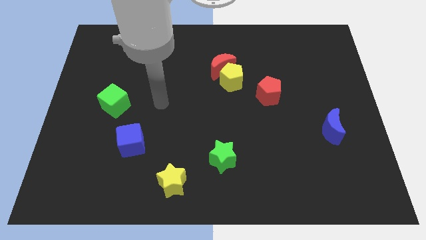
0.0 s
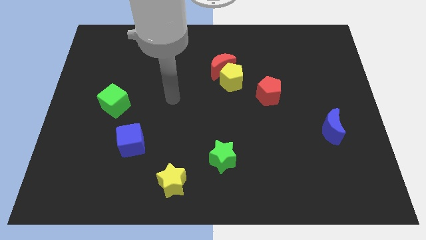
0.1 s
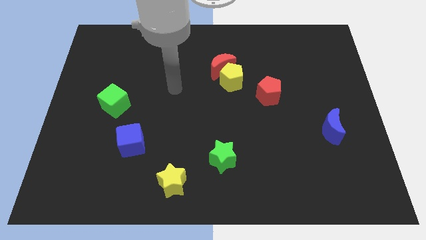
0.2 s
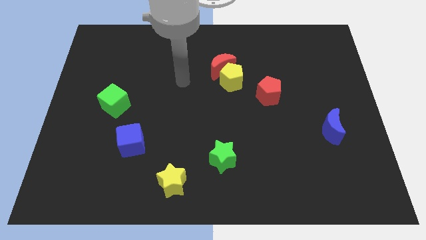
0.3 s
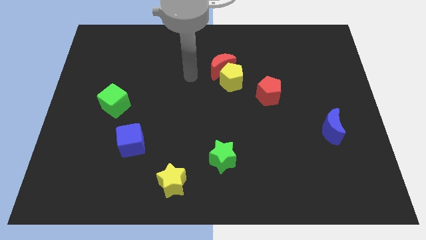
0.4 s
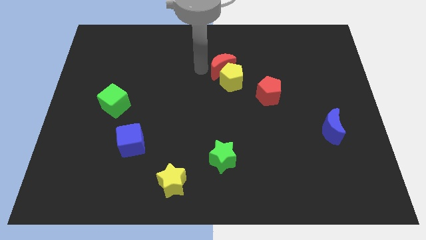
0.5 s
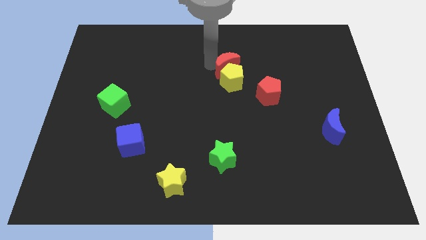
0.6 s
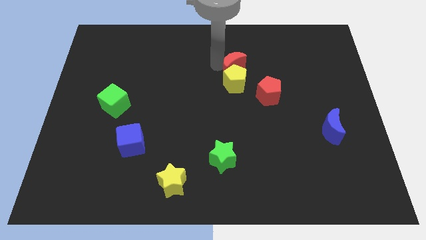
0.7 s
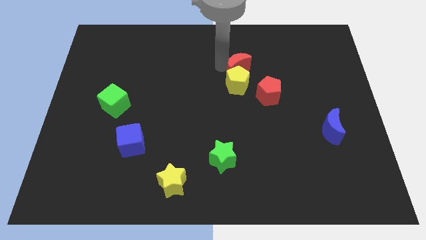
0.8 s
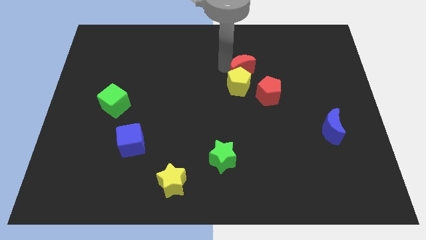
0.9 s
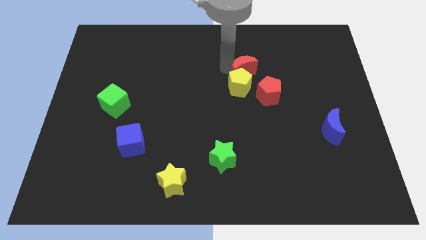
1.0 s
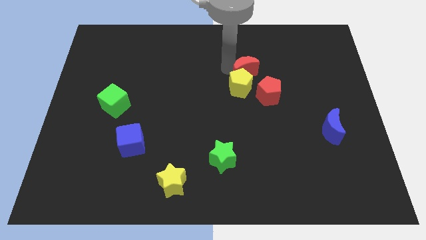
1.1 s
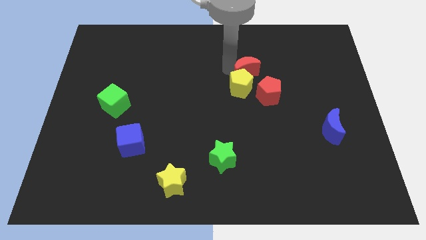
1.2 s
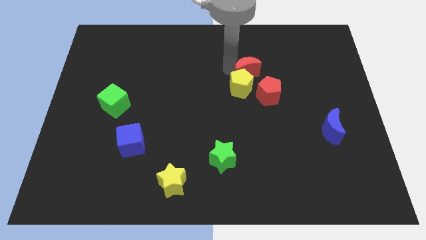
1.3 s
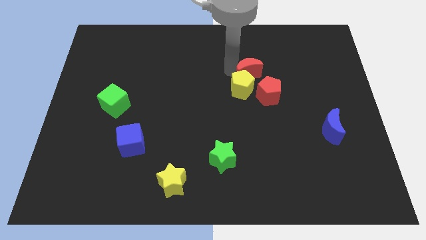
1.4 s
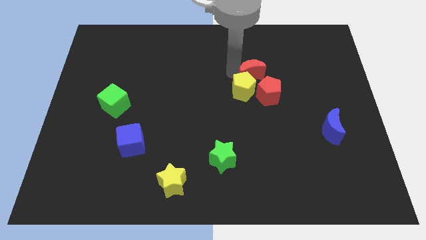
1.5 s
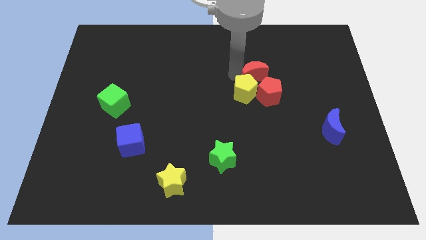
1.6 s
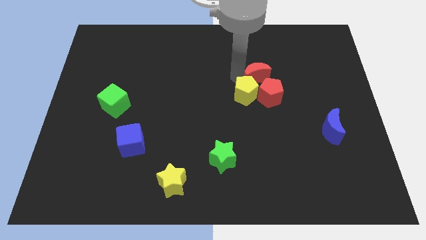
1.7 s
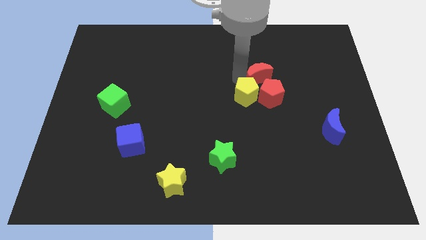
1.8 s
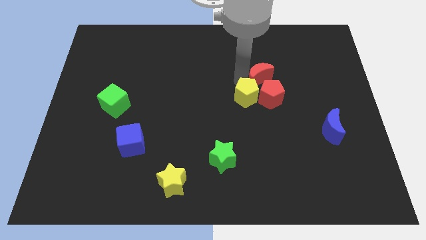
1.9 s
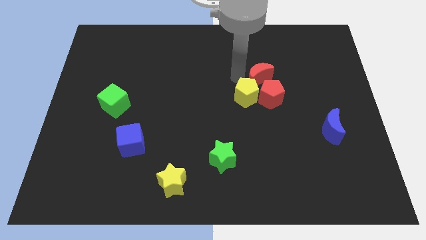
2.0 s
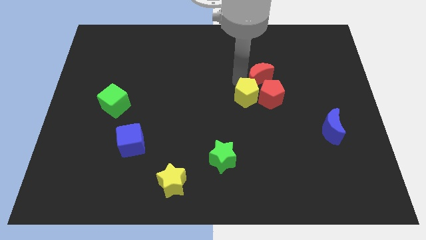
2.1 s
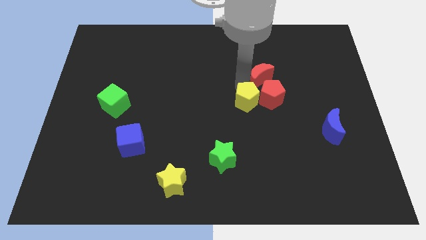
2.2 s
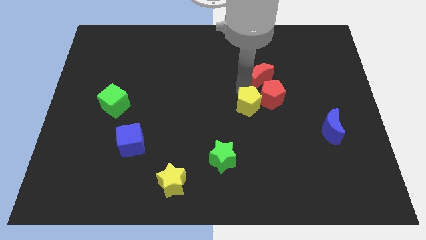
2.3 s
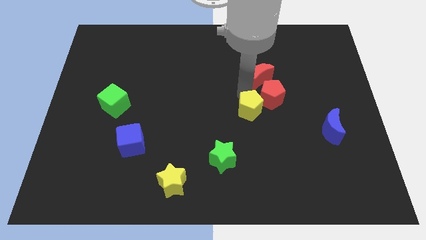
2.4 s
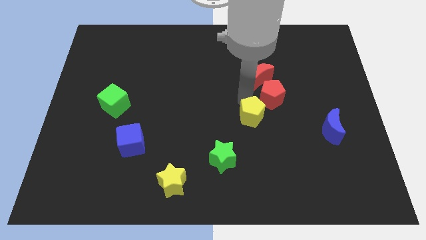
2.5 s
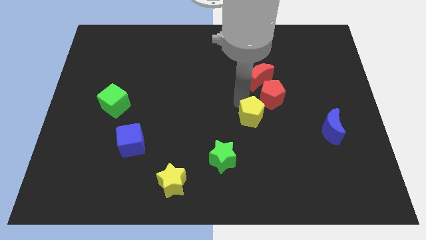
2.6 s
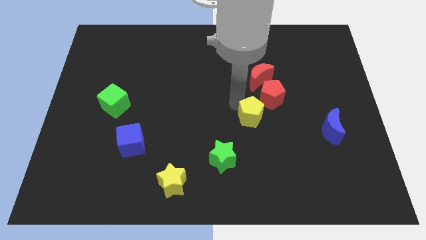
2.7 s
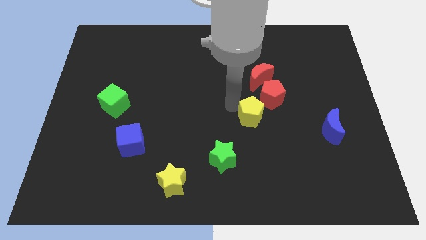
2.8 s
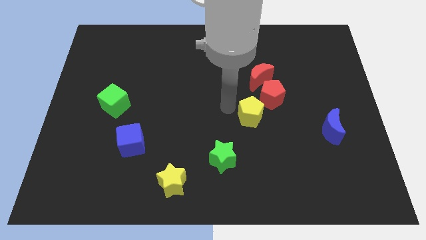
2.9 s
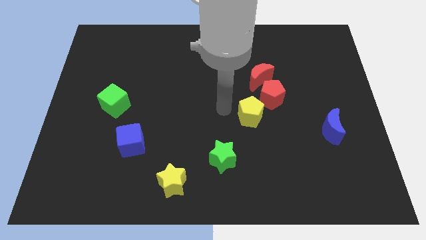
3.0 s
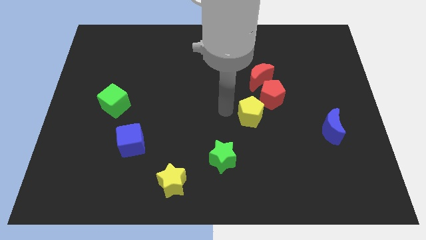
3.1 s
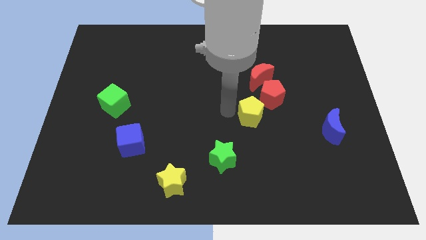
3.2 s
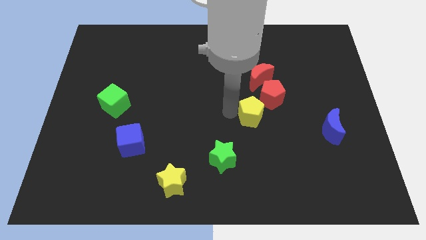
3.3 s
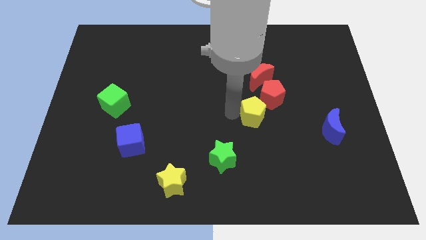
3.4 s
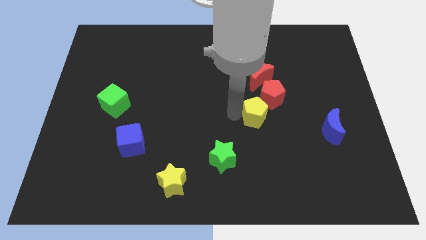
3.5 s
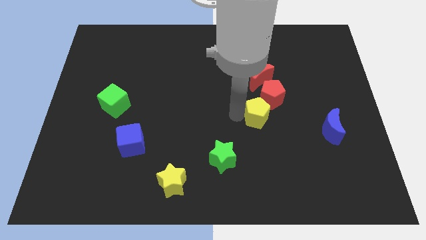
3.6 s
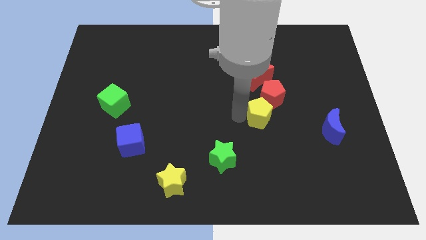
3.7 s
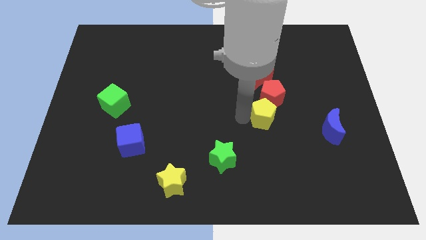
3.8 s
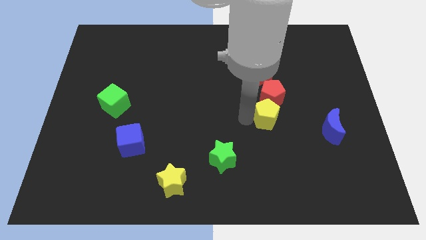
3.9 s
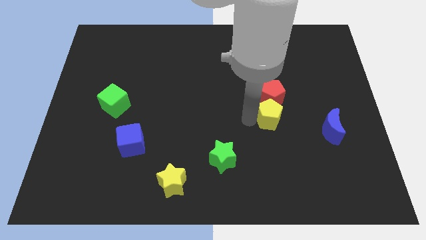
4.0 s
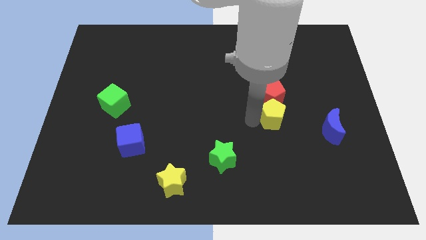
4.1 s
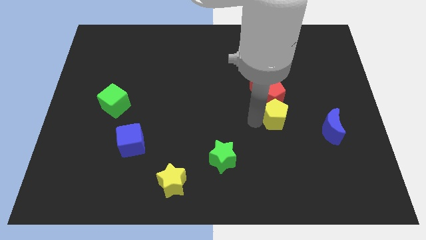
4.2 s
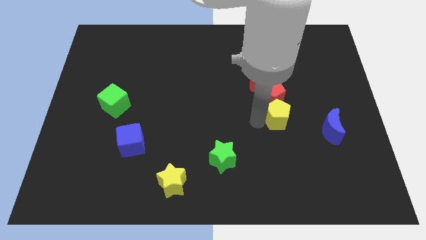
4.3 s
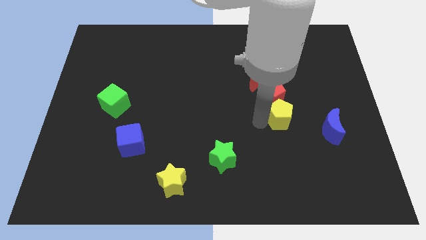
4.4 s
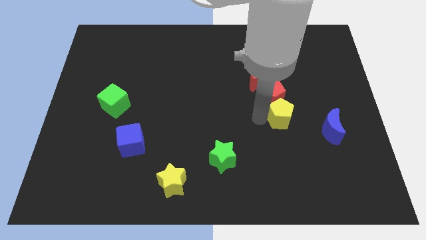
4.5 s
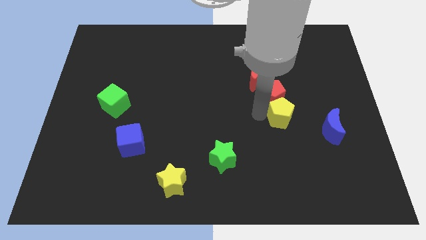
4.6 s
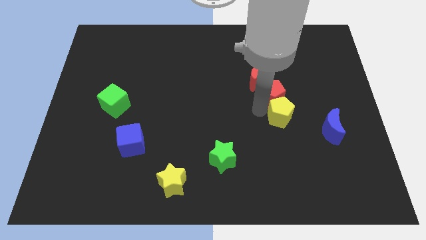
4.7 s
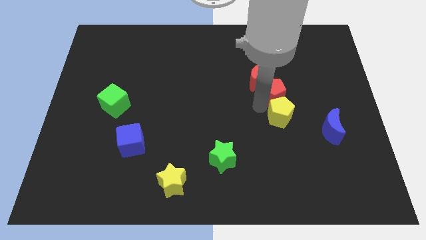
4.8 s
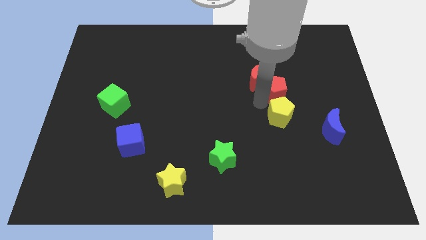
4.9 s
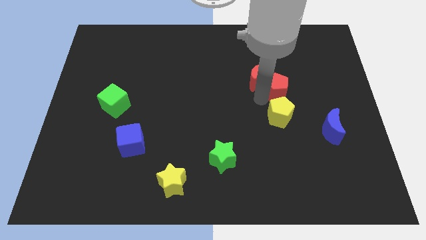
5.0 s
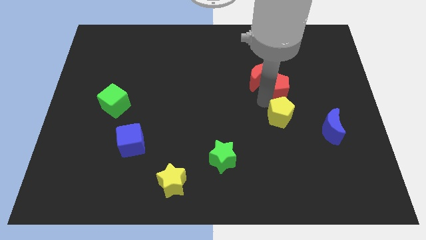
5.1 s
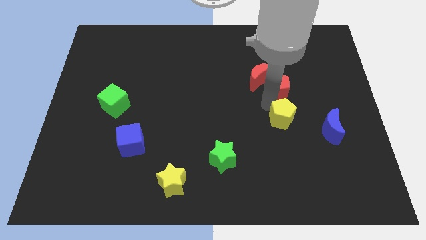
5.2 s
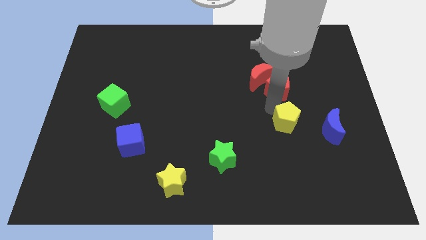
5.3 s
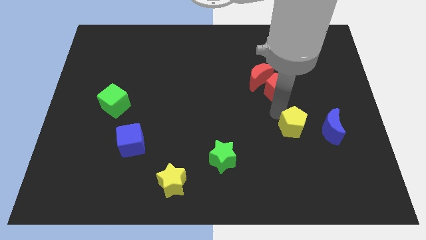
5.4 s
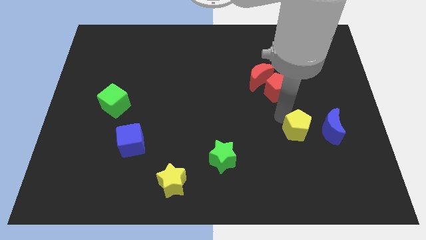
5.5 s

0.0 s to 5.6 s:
slide the yellow pentagon diagonally down and to the right

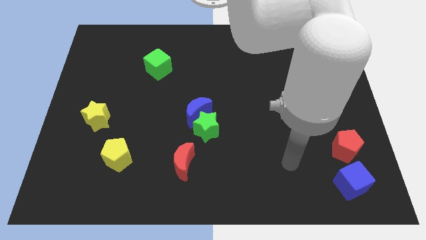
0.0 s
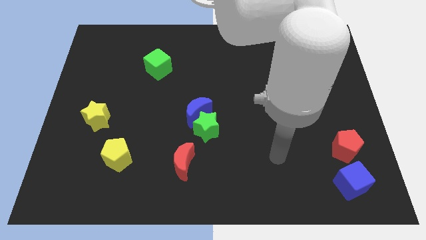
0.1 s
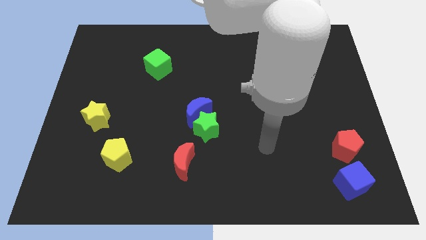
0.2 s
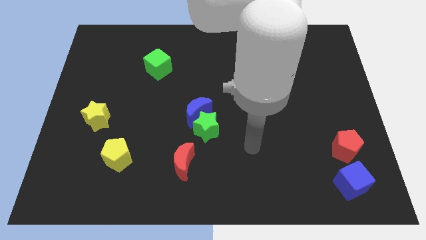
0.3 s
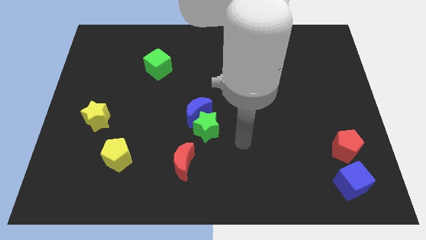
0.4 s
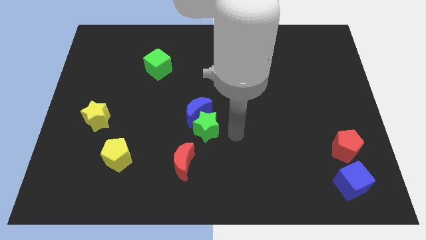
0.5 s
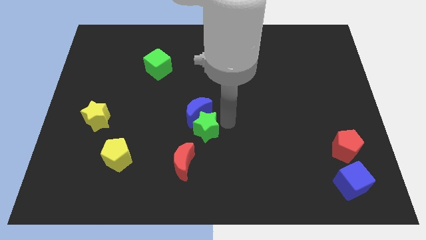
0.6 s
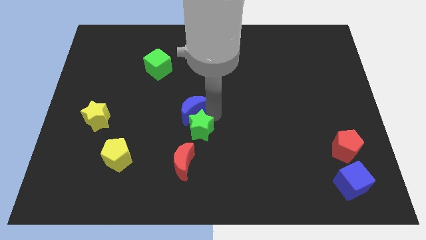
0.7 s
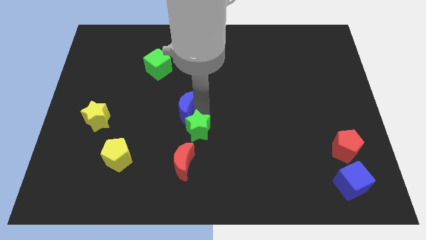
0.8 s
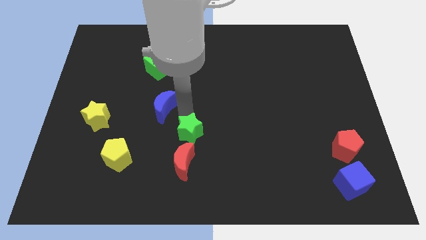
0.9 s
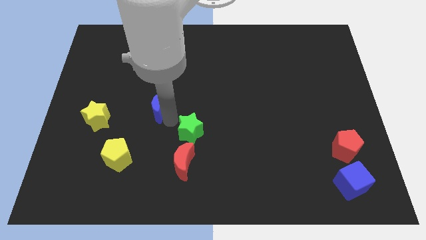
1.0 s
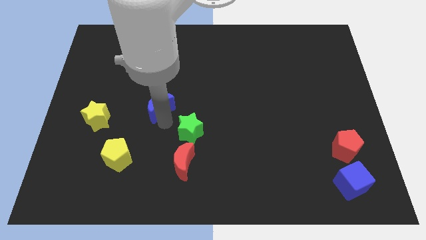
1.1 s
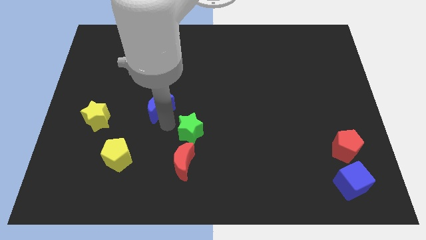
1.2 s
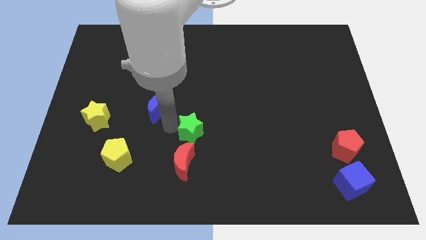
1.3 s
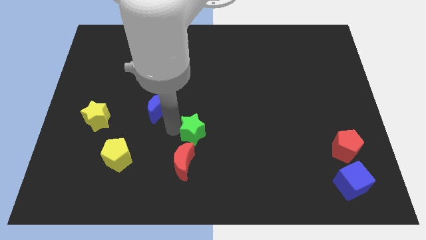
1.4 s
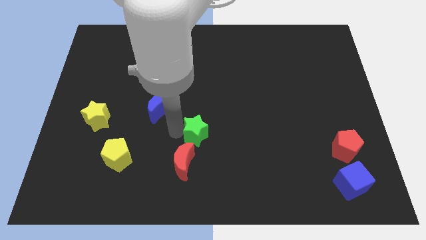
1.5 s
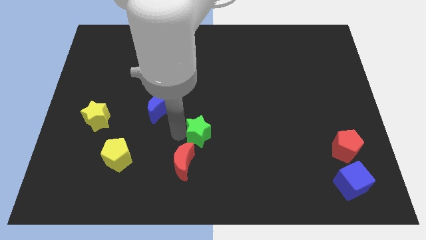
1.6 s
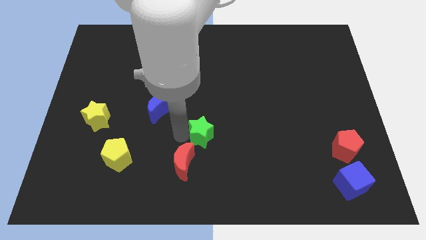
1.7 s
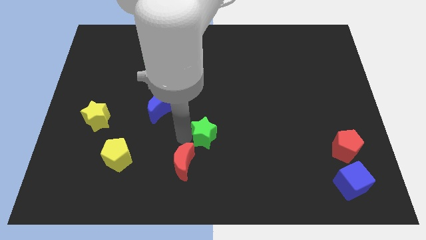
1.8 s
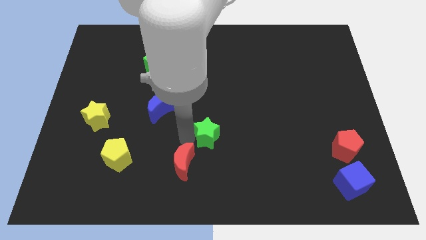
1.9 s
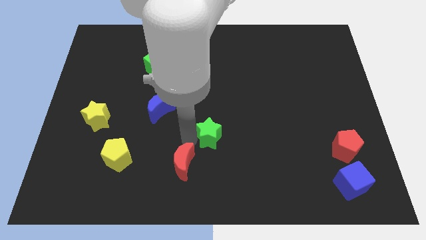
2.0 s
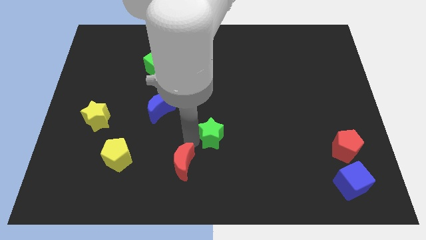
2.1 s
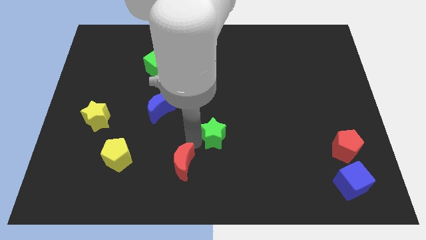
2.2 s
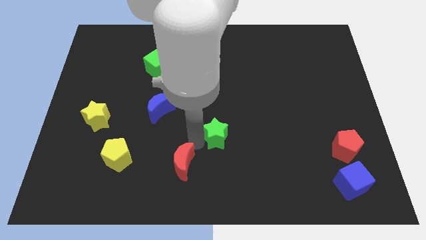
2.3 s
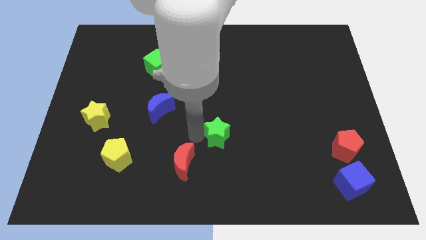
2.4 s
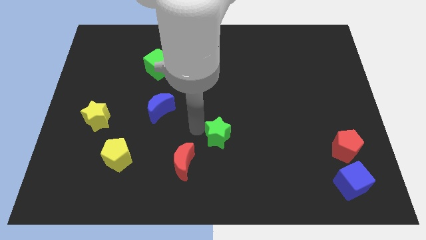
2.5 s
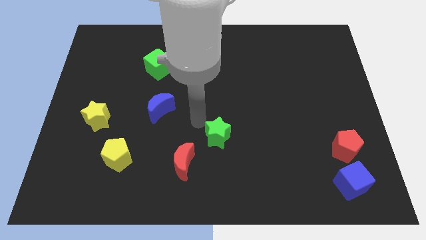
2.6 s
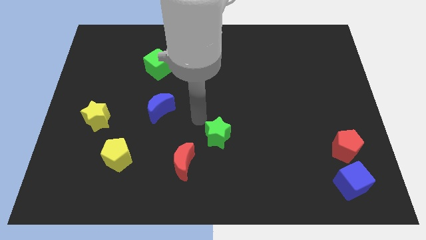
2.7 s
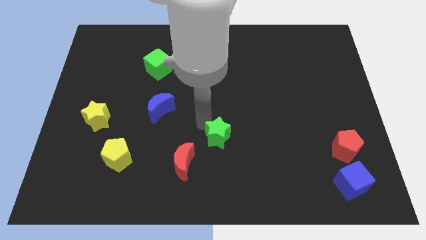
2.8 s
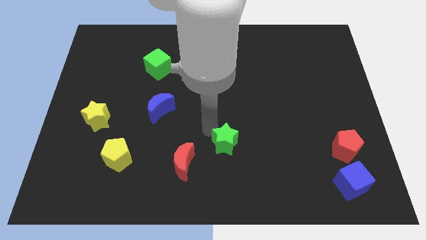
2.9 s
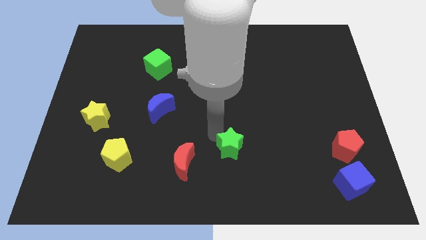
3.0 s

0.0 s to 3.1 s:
push the green star somewhat downwards and right diagonally
